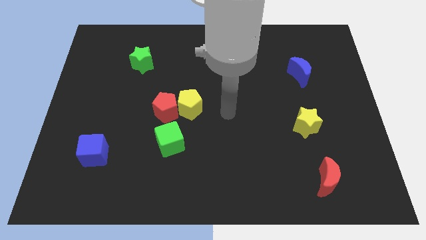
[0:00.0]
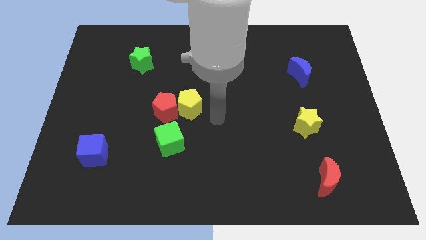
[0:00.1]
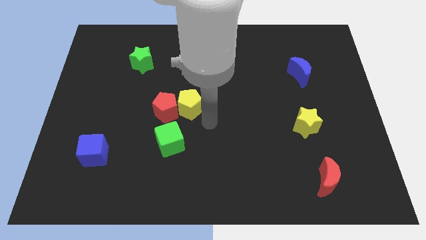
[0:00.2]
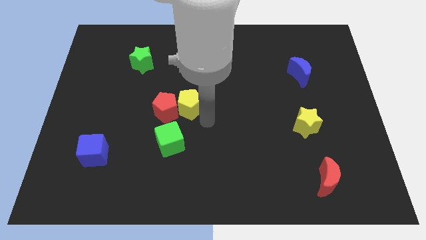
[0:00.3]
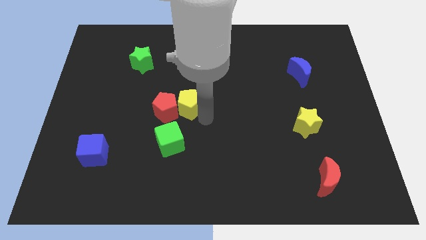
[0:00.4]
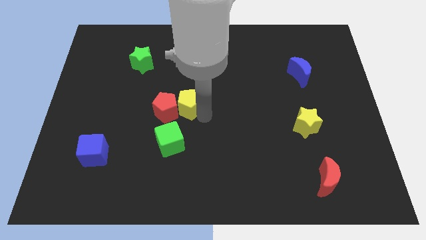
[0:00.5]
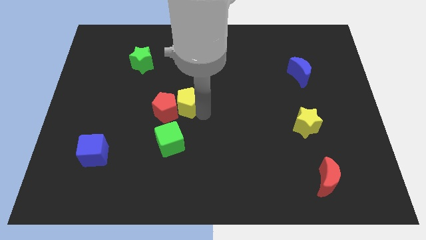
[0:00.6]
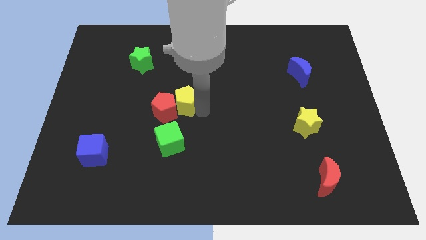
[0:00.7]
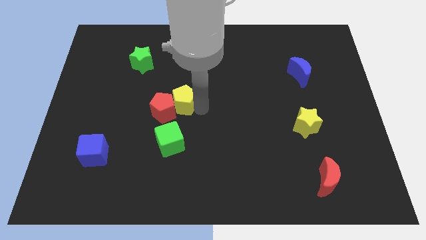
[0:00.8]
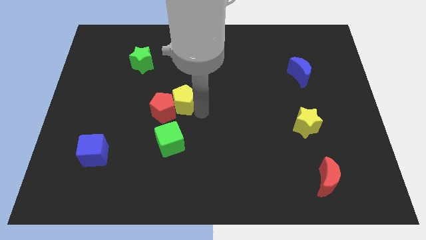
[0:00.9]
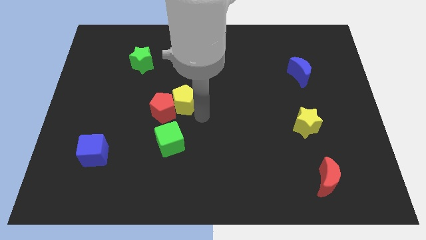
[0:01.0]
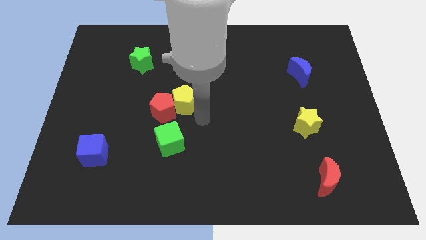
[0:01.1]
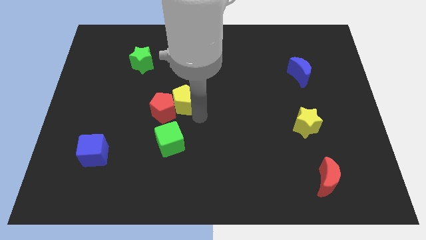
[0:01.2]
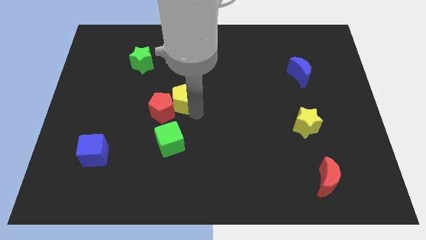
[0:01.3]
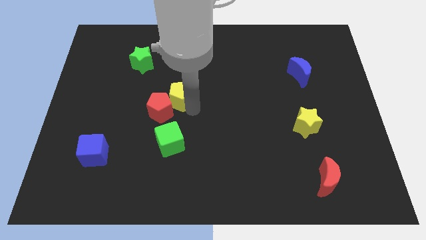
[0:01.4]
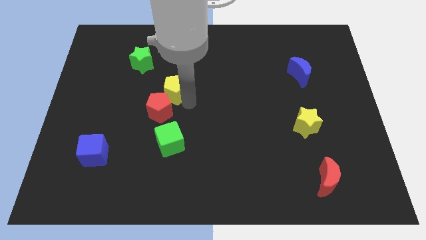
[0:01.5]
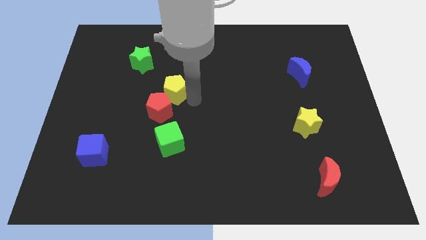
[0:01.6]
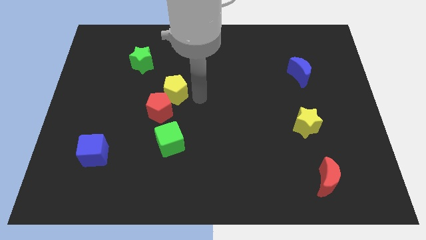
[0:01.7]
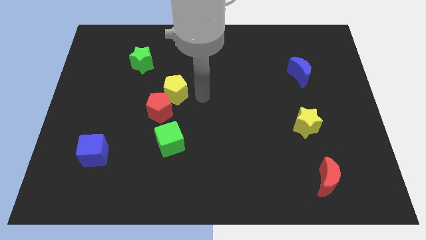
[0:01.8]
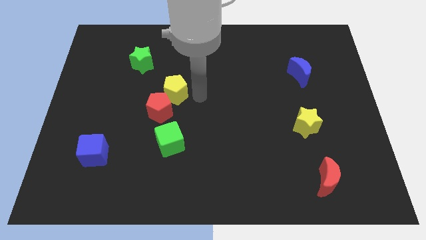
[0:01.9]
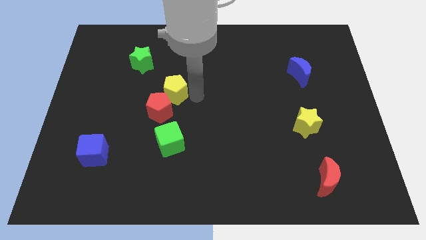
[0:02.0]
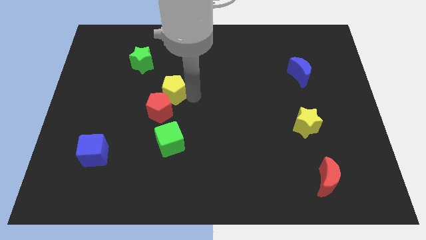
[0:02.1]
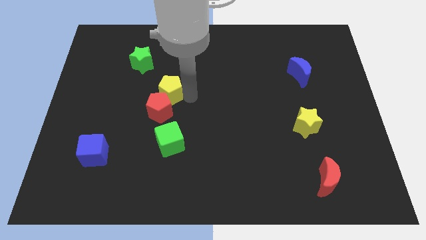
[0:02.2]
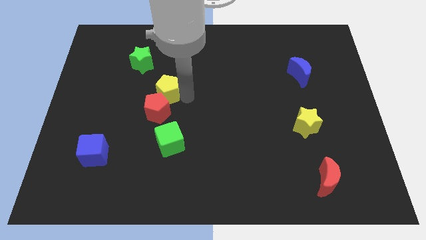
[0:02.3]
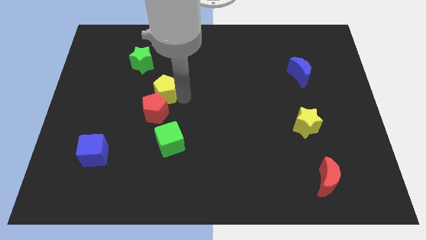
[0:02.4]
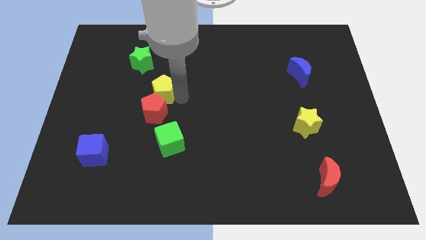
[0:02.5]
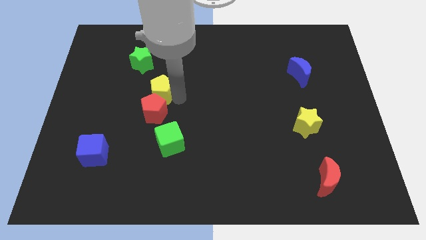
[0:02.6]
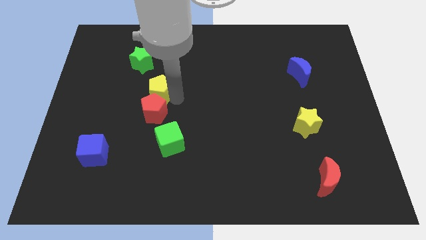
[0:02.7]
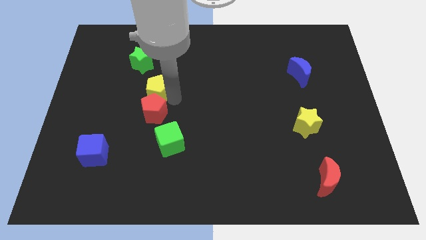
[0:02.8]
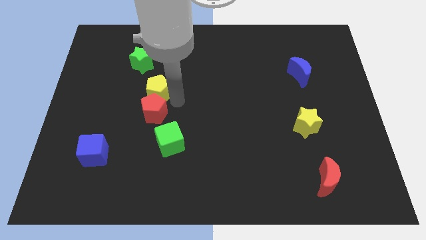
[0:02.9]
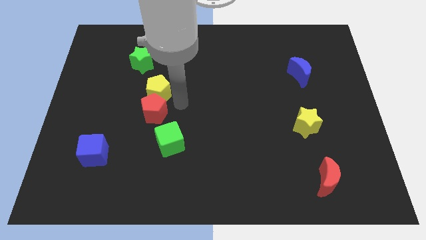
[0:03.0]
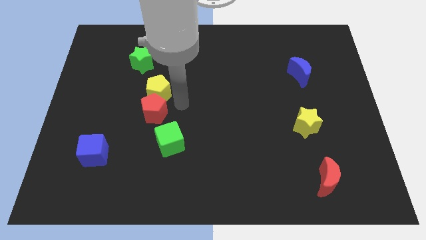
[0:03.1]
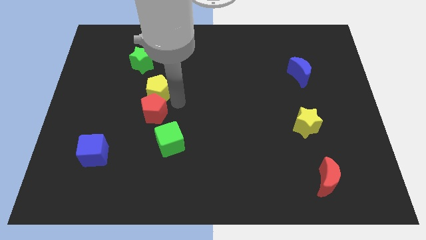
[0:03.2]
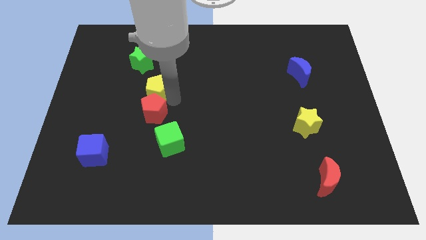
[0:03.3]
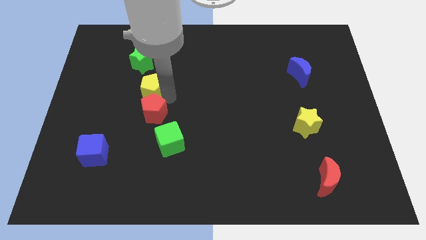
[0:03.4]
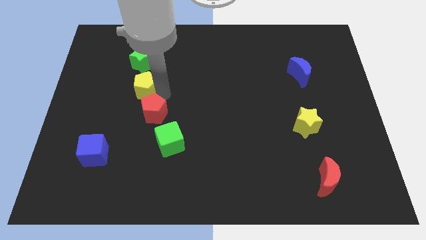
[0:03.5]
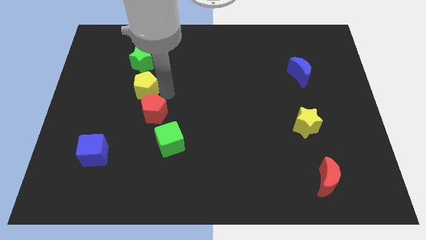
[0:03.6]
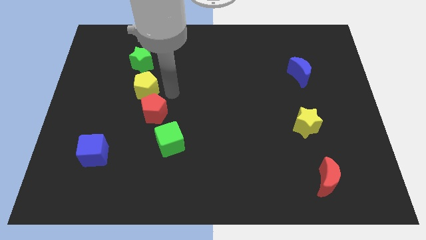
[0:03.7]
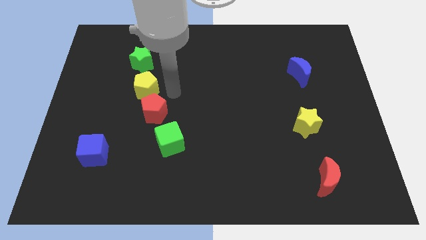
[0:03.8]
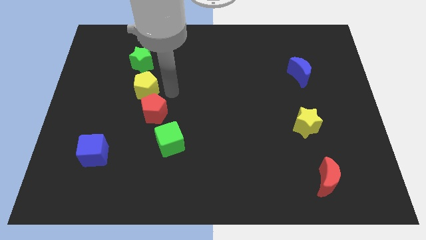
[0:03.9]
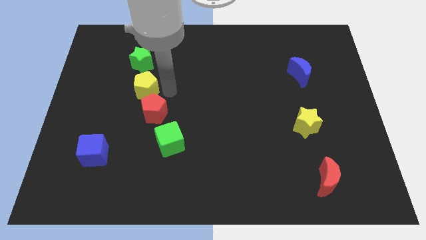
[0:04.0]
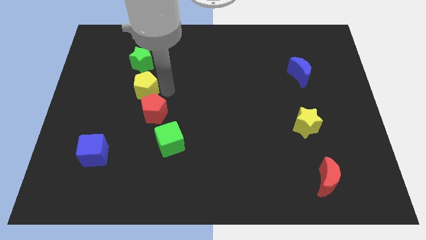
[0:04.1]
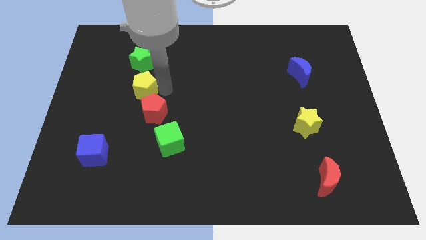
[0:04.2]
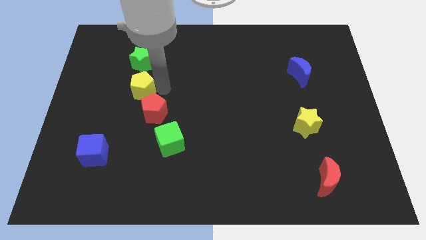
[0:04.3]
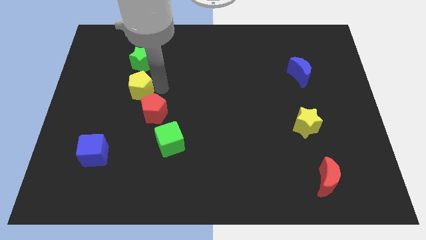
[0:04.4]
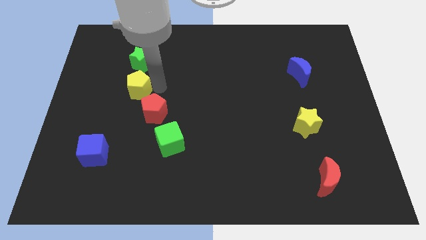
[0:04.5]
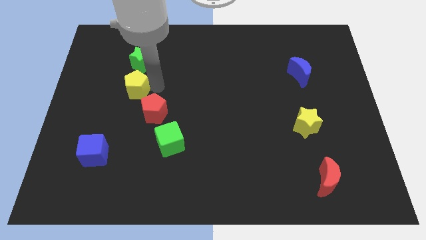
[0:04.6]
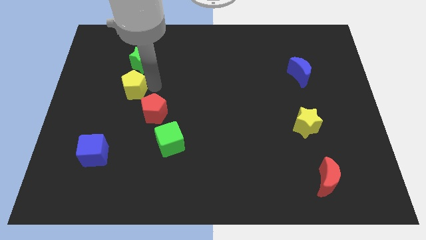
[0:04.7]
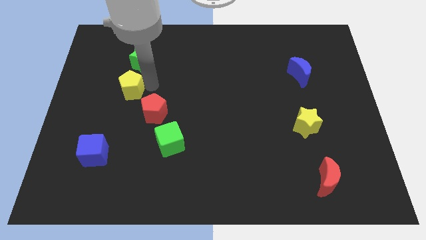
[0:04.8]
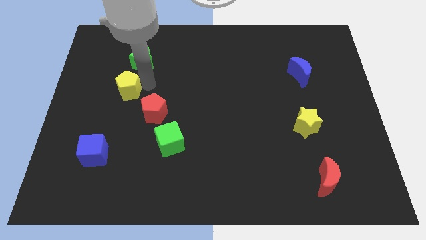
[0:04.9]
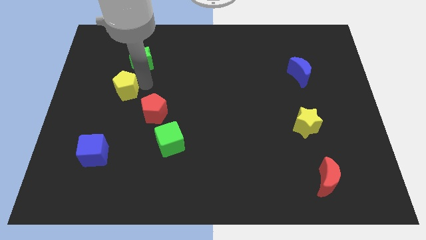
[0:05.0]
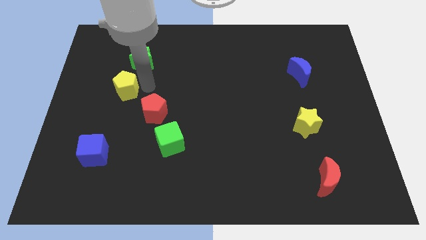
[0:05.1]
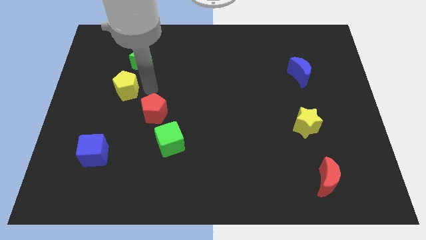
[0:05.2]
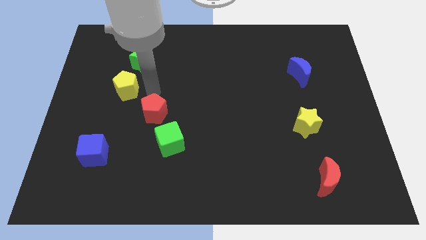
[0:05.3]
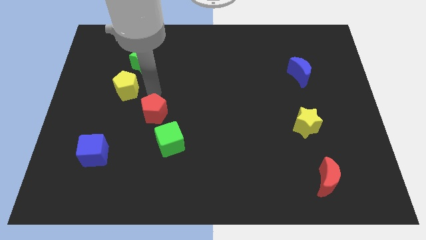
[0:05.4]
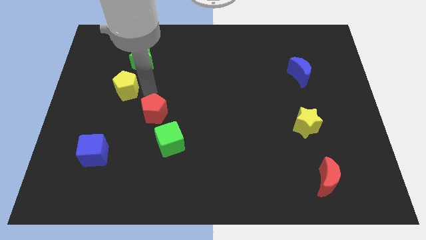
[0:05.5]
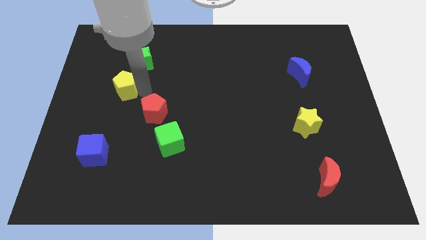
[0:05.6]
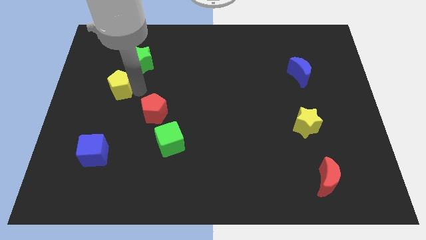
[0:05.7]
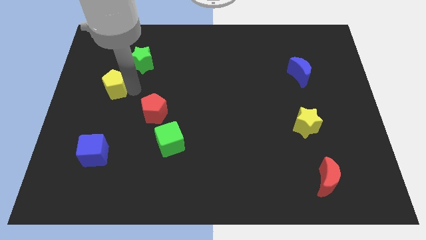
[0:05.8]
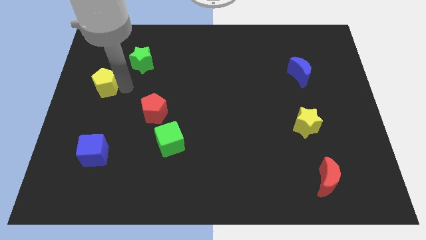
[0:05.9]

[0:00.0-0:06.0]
move the yellow pentagon to the left side
